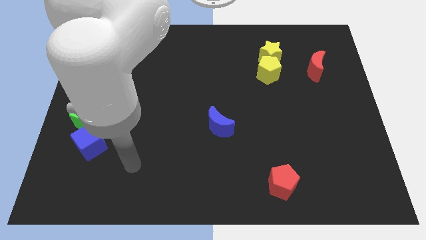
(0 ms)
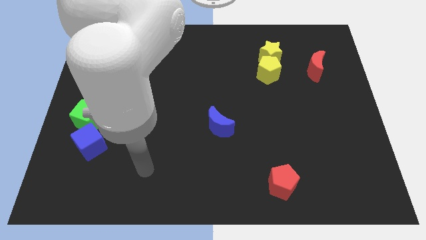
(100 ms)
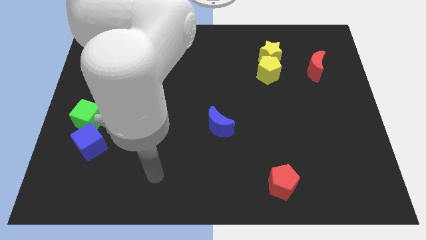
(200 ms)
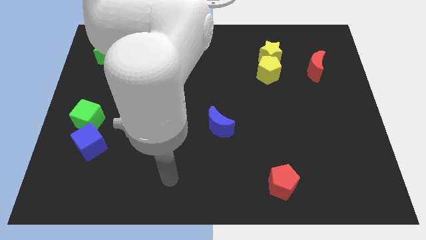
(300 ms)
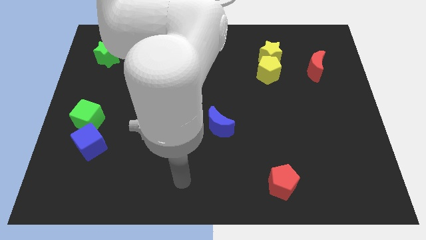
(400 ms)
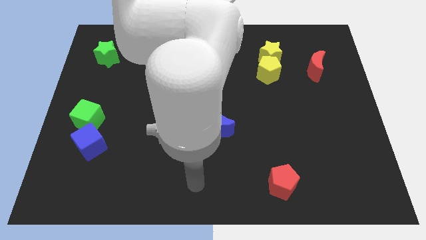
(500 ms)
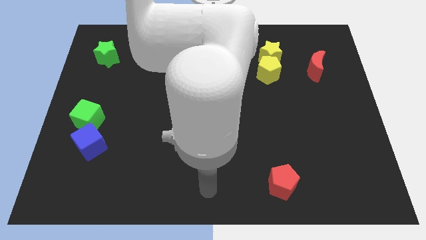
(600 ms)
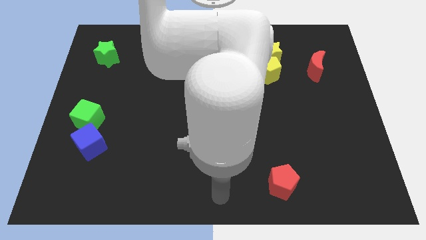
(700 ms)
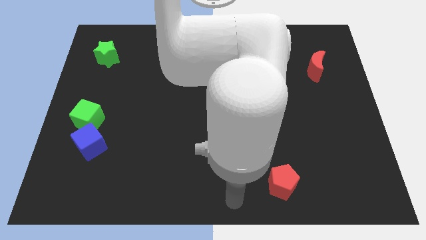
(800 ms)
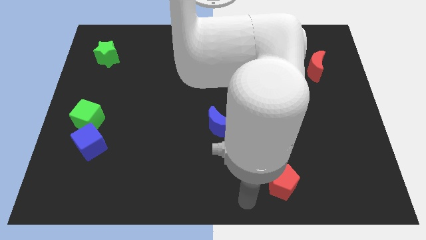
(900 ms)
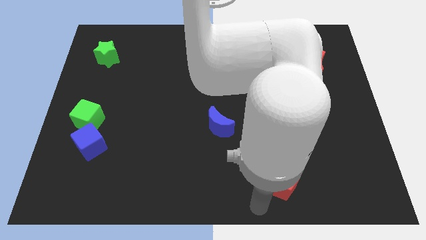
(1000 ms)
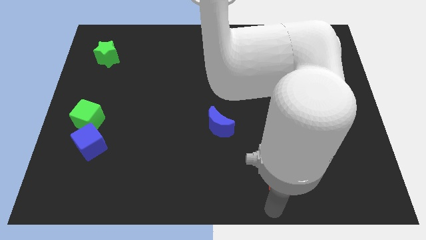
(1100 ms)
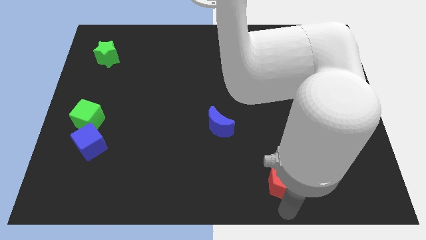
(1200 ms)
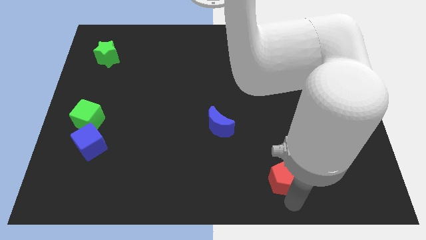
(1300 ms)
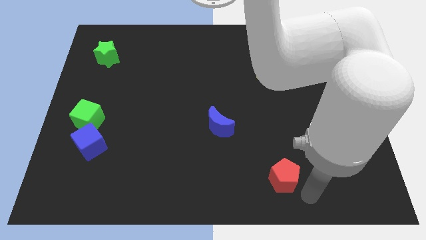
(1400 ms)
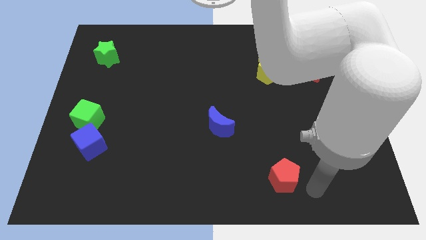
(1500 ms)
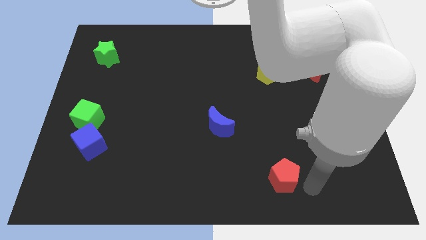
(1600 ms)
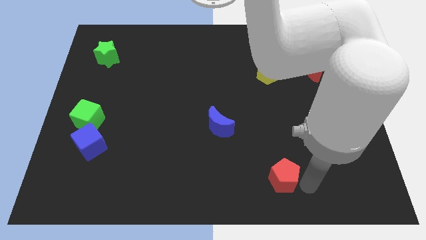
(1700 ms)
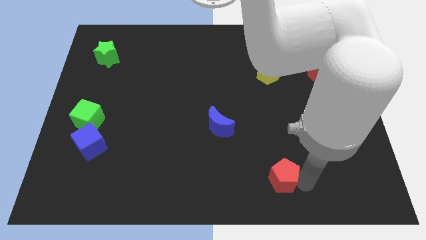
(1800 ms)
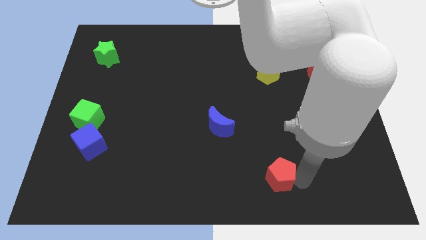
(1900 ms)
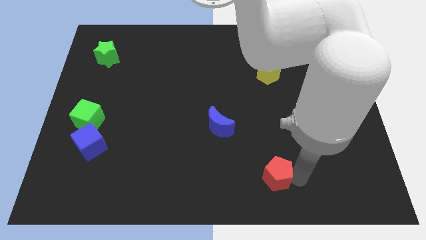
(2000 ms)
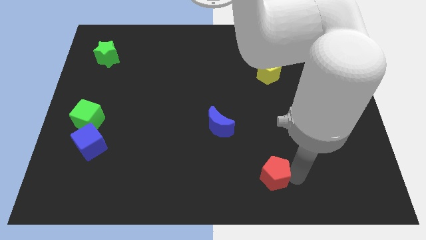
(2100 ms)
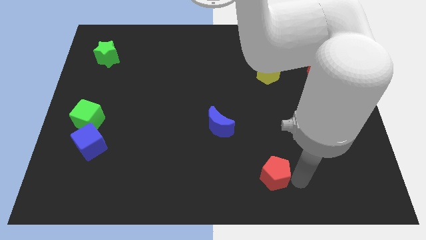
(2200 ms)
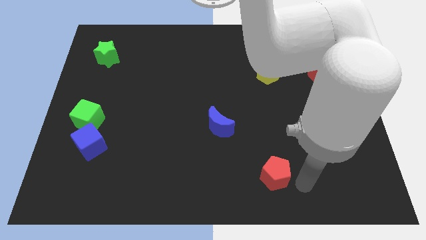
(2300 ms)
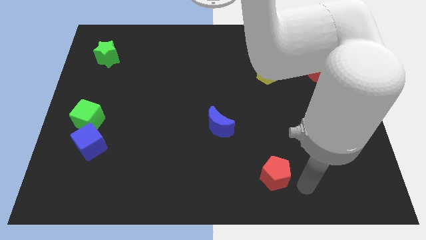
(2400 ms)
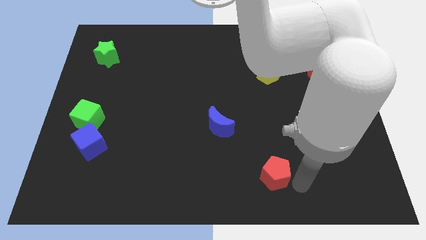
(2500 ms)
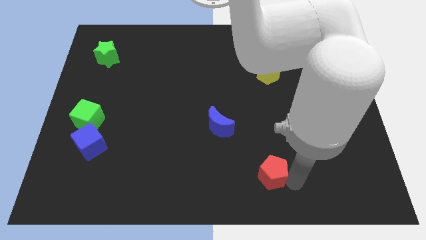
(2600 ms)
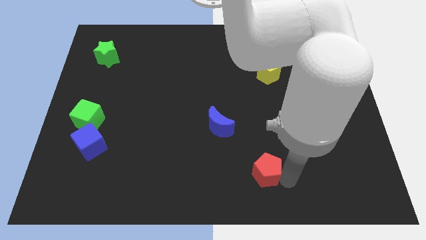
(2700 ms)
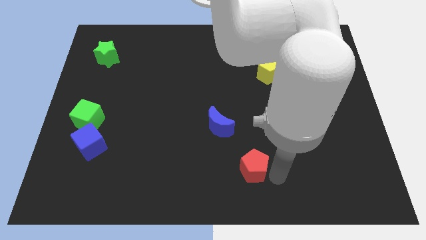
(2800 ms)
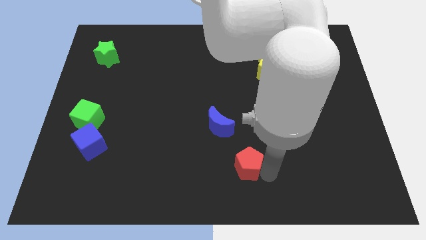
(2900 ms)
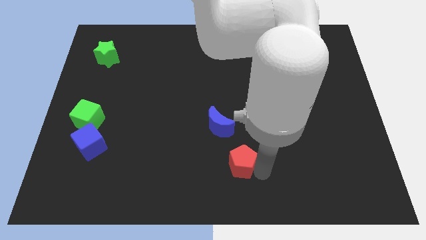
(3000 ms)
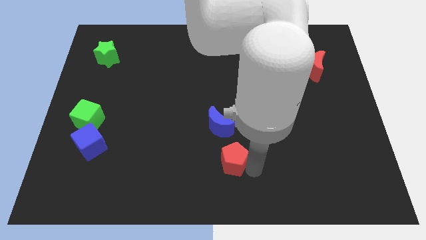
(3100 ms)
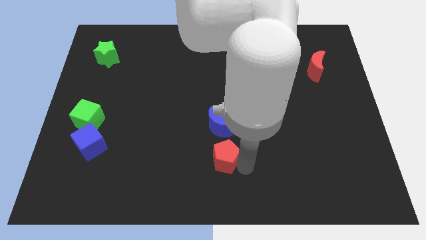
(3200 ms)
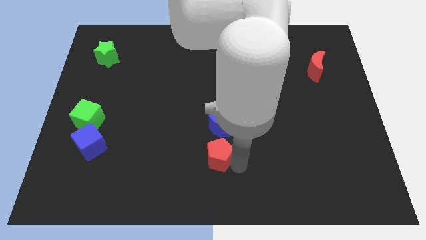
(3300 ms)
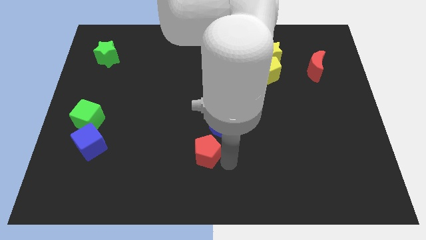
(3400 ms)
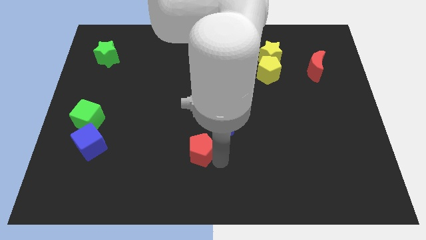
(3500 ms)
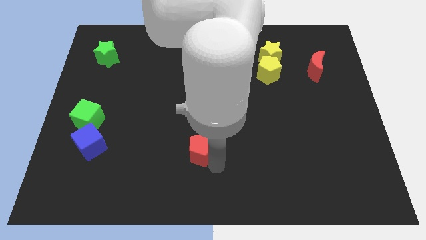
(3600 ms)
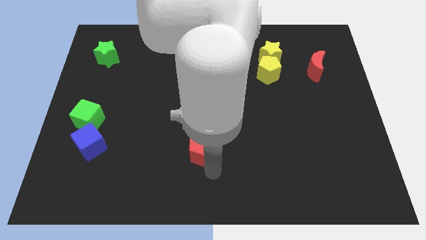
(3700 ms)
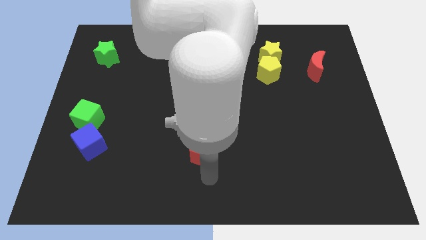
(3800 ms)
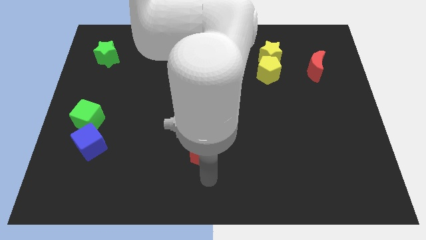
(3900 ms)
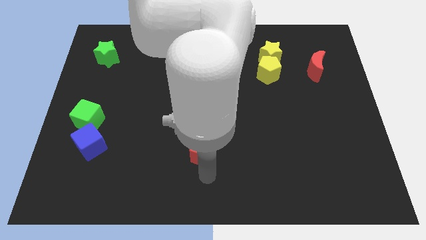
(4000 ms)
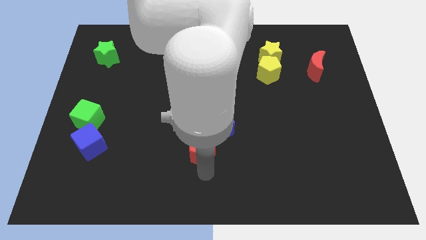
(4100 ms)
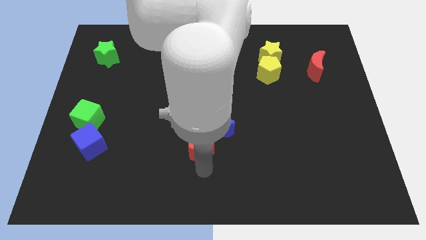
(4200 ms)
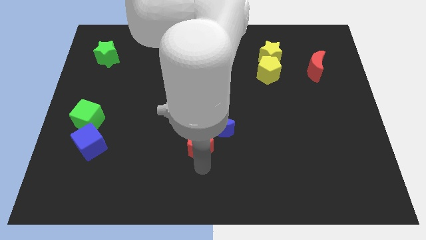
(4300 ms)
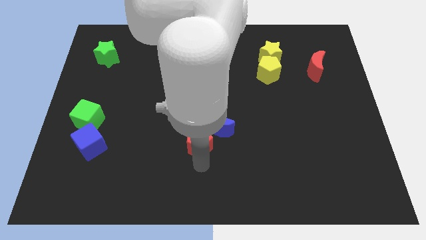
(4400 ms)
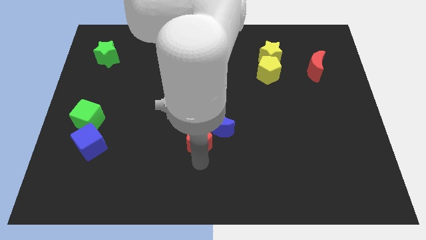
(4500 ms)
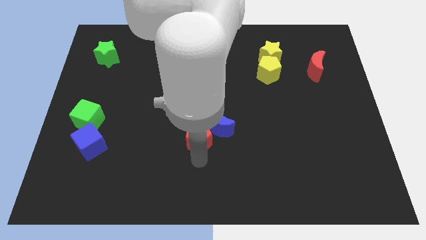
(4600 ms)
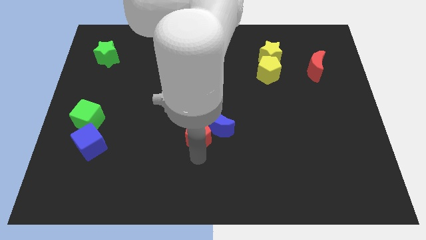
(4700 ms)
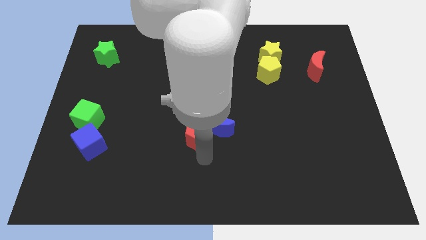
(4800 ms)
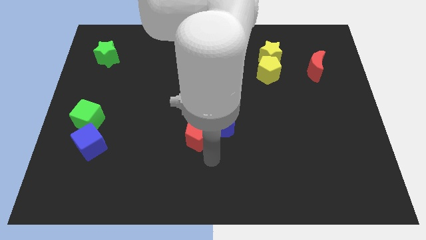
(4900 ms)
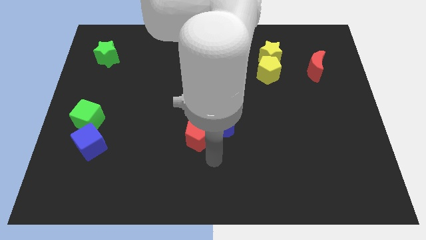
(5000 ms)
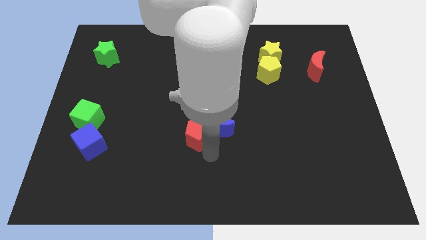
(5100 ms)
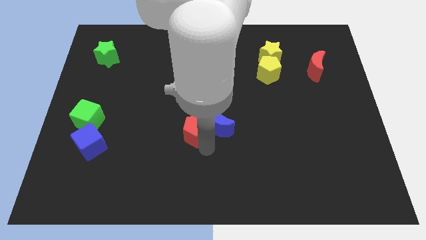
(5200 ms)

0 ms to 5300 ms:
move the red pentagon up and then to the left

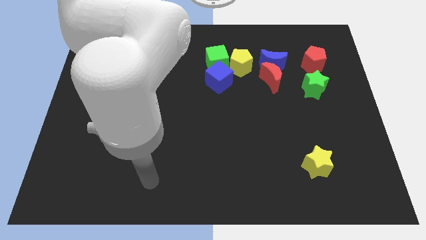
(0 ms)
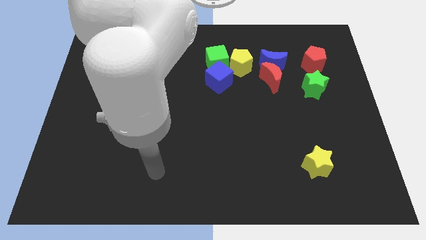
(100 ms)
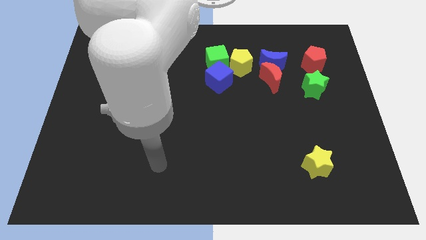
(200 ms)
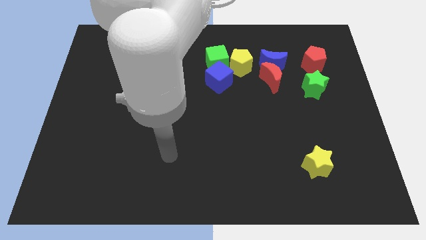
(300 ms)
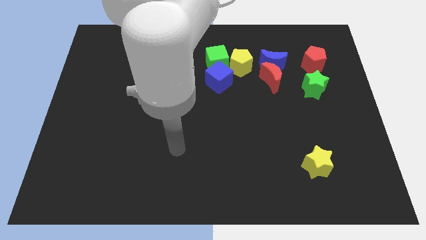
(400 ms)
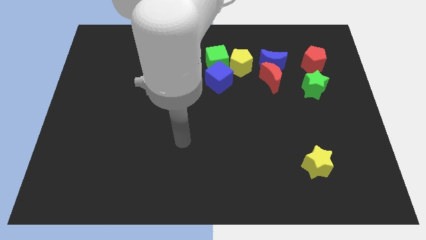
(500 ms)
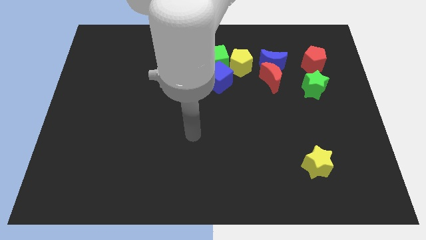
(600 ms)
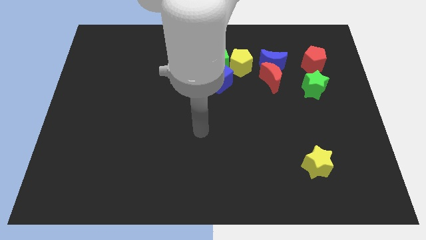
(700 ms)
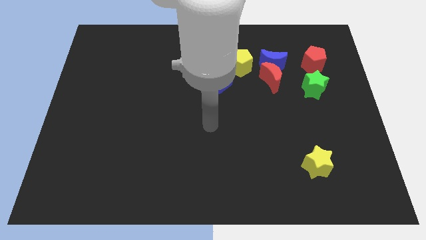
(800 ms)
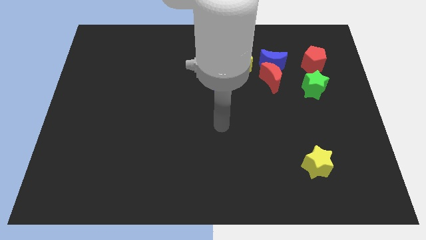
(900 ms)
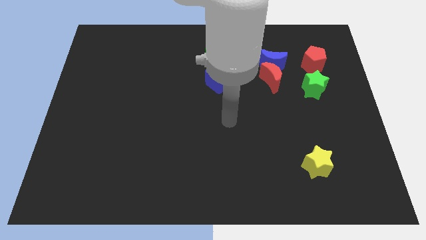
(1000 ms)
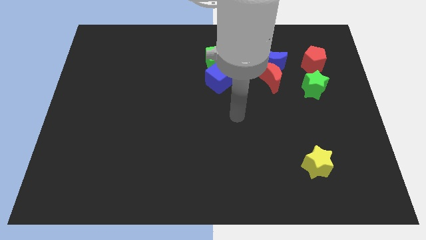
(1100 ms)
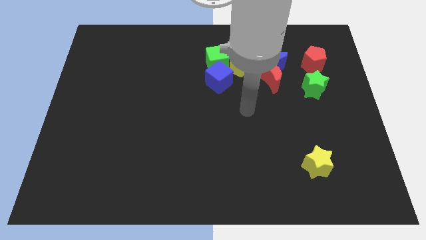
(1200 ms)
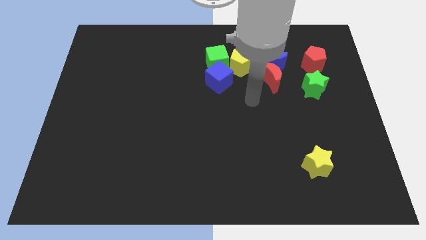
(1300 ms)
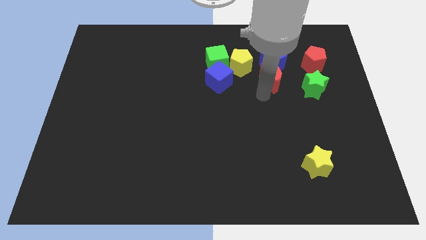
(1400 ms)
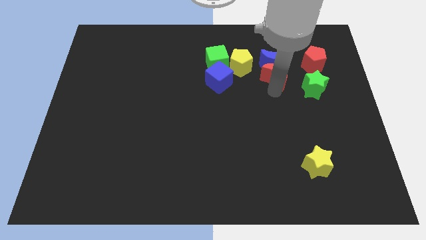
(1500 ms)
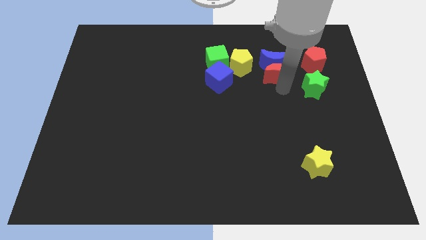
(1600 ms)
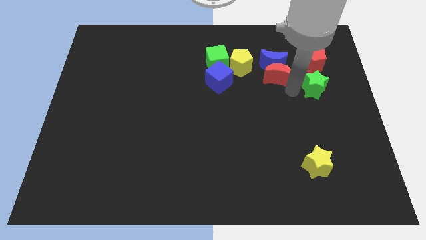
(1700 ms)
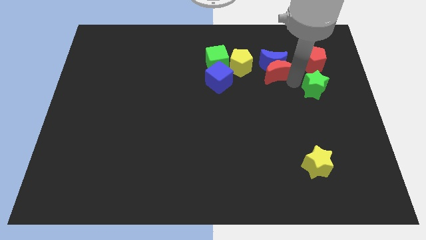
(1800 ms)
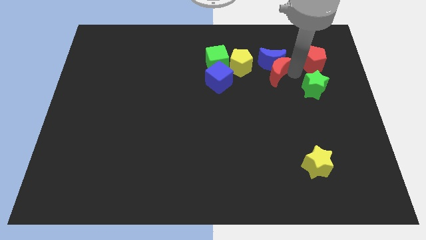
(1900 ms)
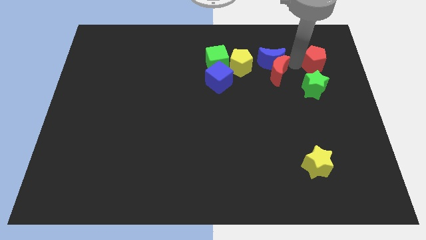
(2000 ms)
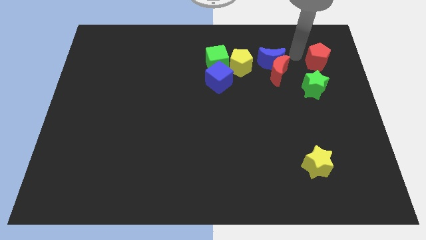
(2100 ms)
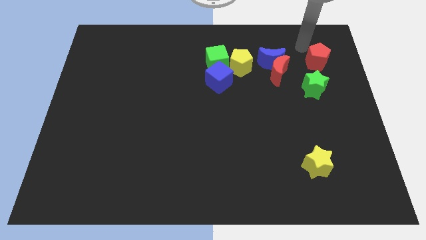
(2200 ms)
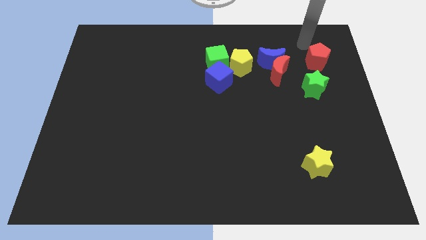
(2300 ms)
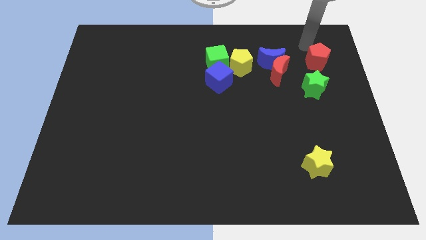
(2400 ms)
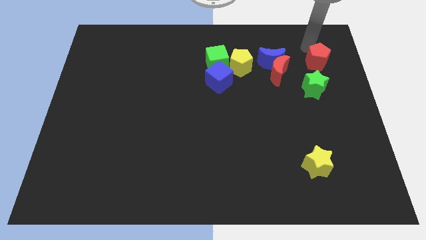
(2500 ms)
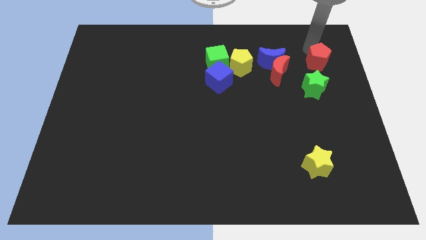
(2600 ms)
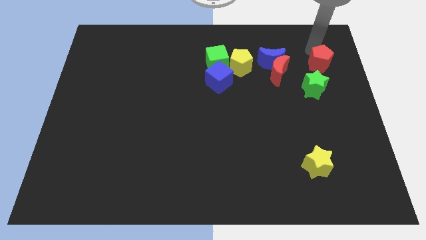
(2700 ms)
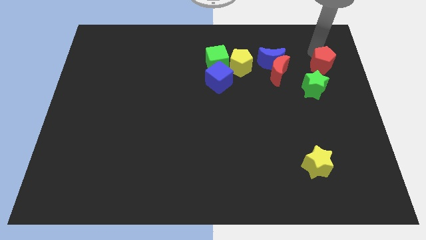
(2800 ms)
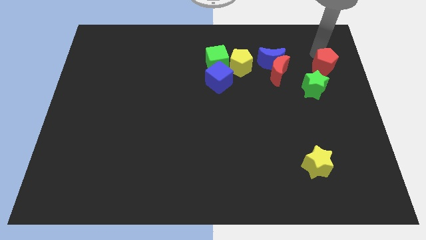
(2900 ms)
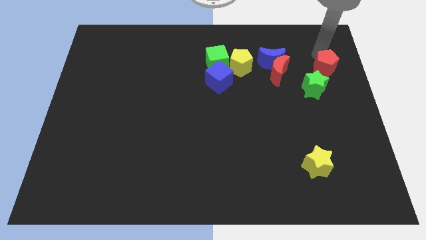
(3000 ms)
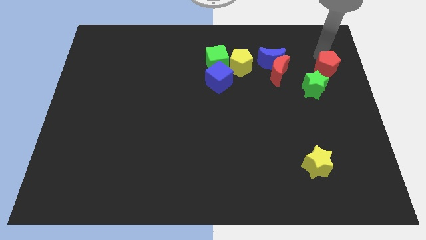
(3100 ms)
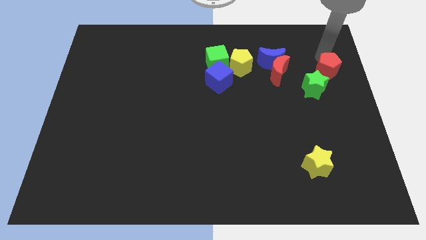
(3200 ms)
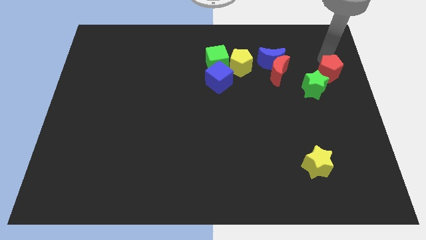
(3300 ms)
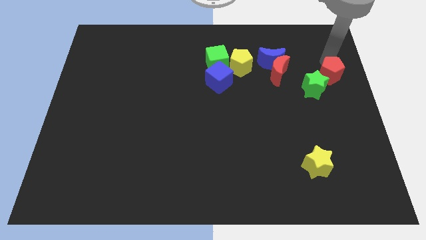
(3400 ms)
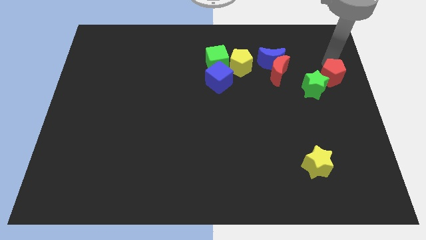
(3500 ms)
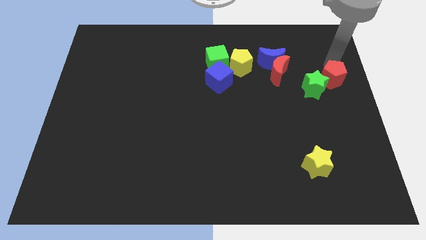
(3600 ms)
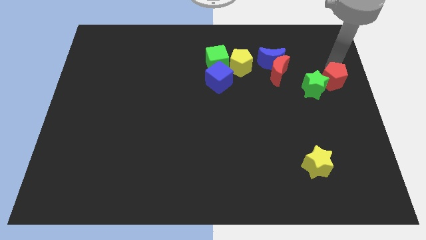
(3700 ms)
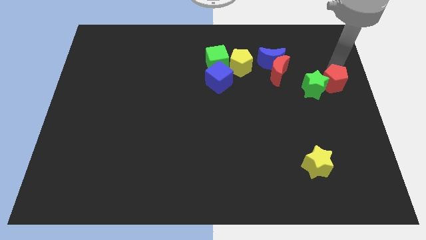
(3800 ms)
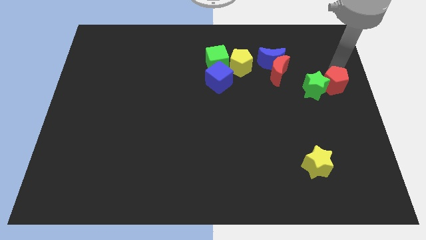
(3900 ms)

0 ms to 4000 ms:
push the red pentagon slightly down
